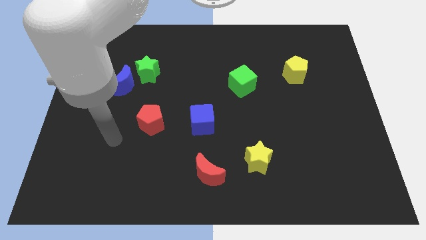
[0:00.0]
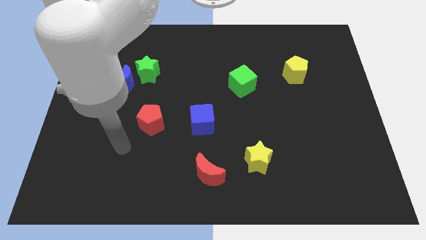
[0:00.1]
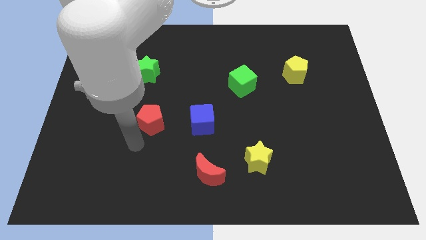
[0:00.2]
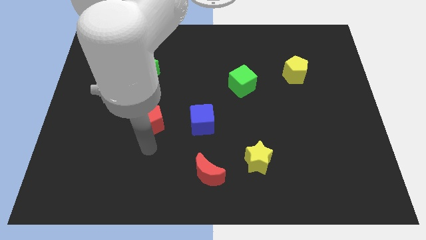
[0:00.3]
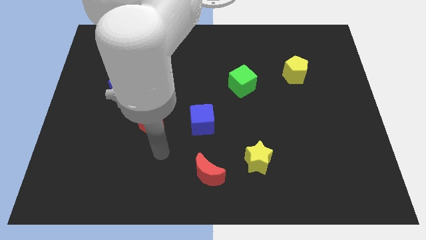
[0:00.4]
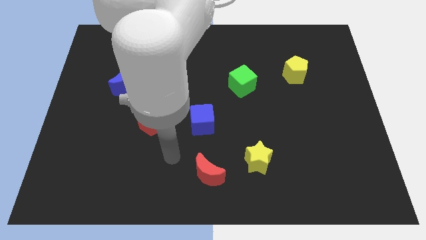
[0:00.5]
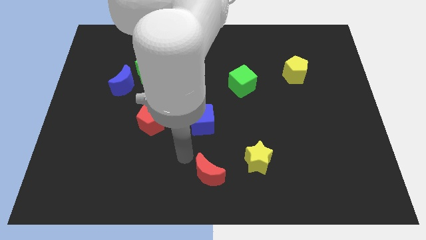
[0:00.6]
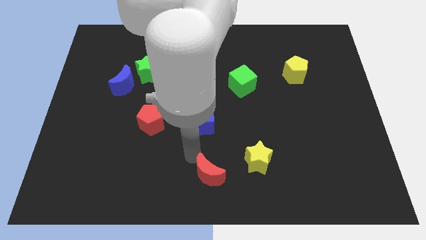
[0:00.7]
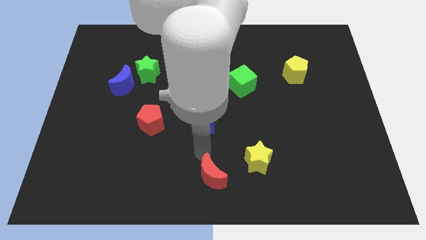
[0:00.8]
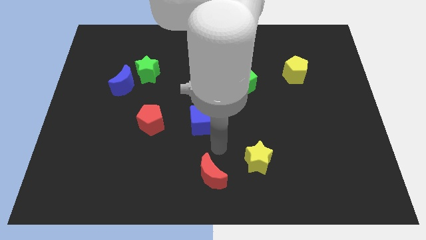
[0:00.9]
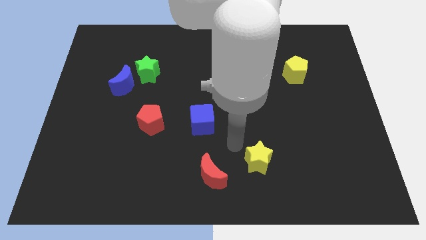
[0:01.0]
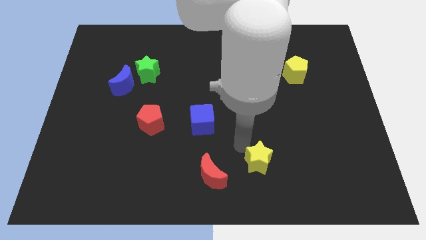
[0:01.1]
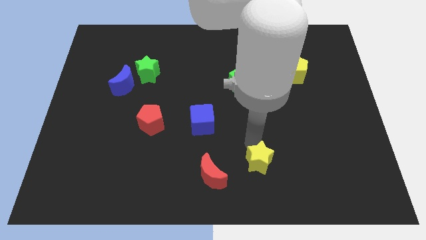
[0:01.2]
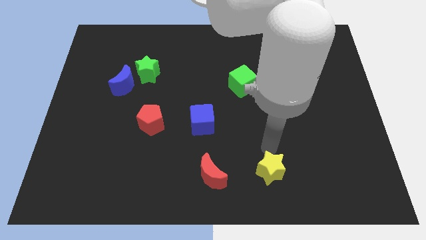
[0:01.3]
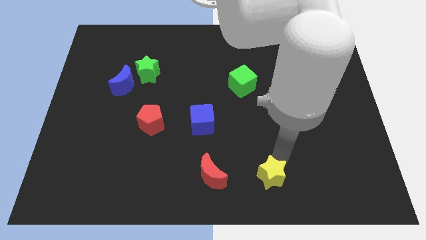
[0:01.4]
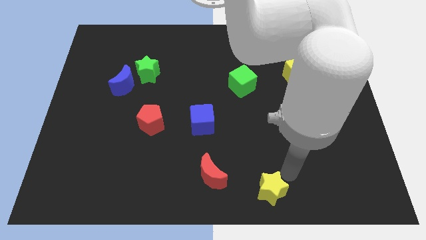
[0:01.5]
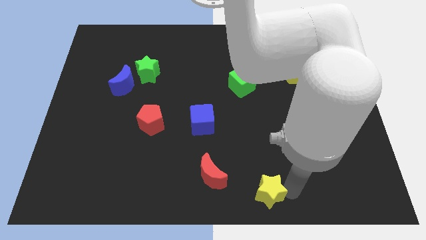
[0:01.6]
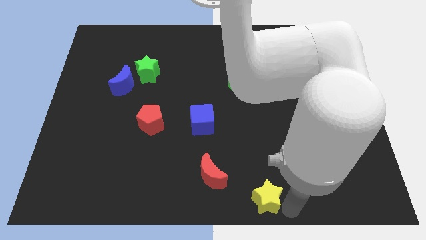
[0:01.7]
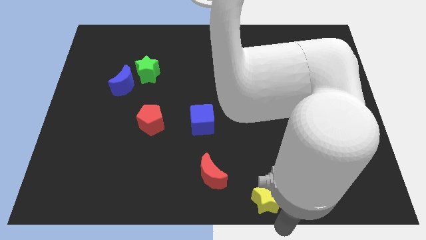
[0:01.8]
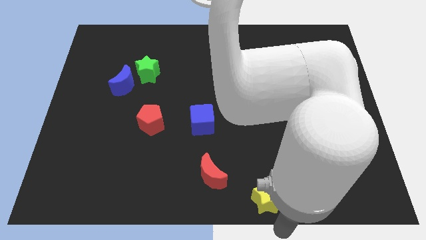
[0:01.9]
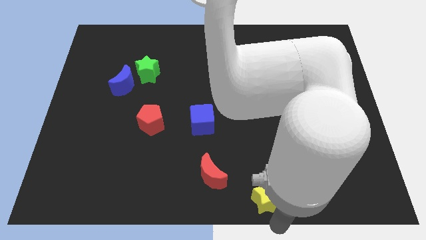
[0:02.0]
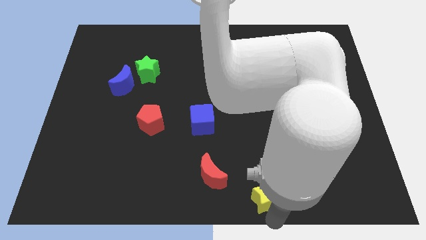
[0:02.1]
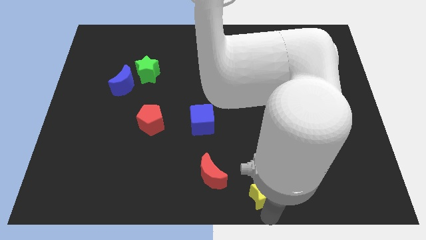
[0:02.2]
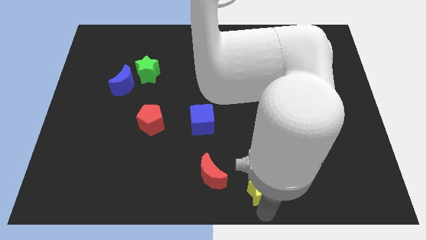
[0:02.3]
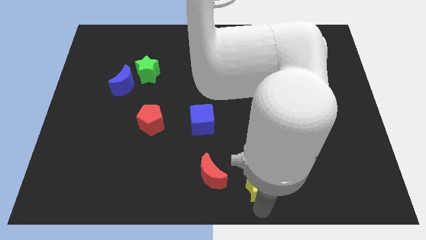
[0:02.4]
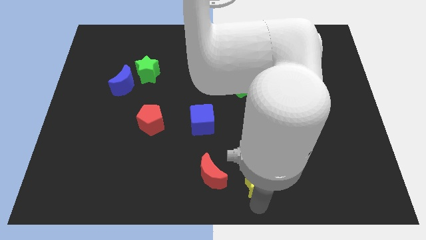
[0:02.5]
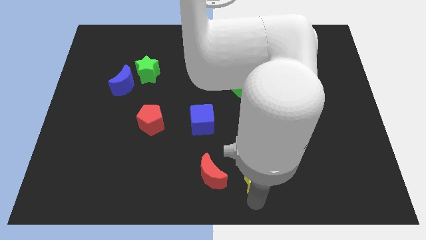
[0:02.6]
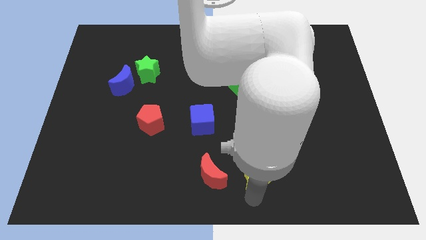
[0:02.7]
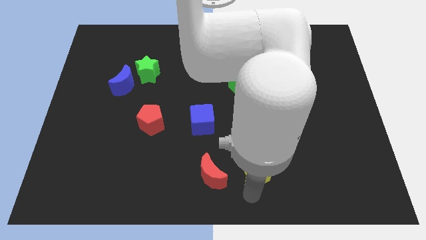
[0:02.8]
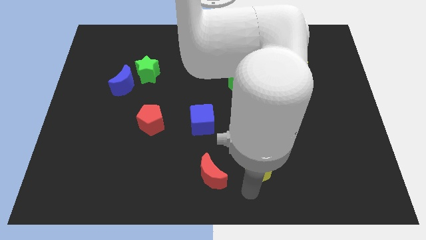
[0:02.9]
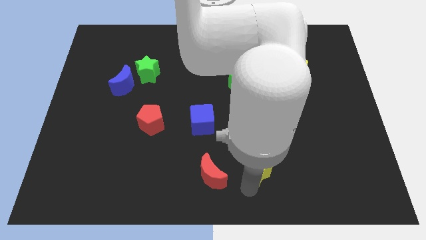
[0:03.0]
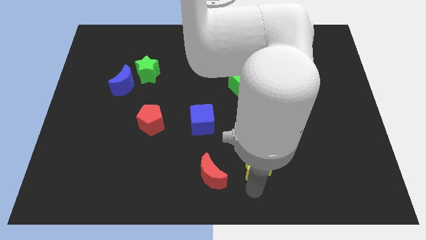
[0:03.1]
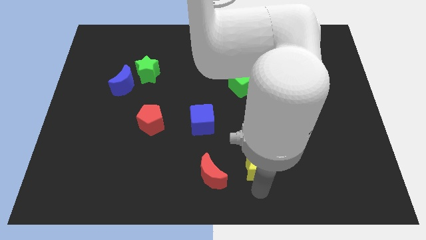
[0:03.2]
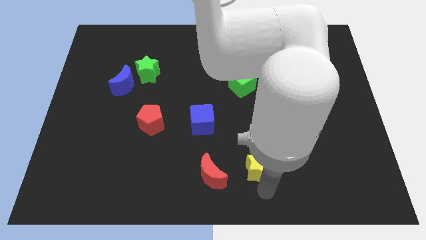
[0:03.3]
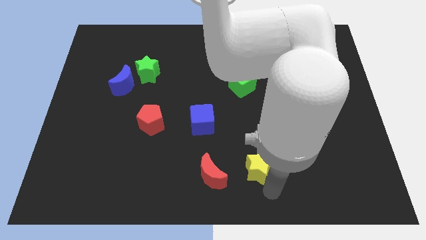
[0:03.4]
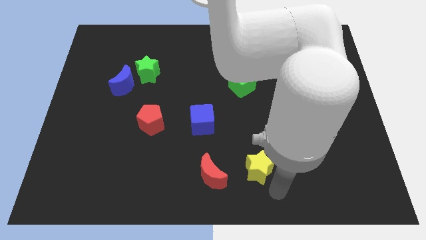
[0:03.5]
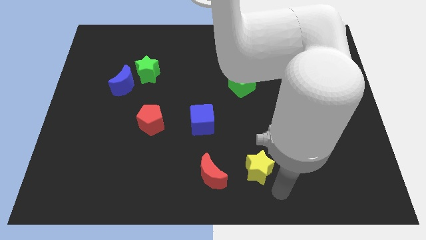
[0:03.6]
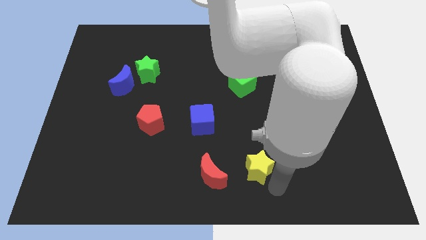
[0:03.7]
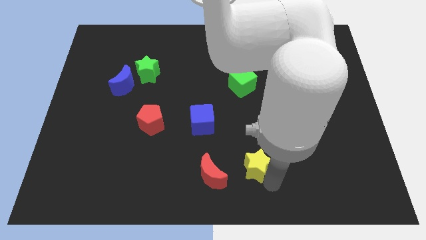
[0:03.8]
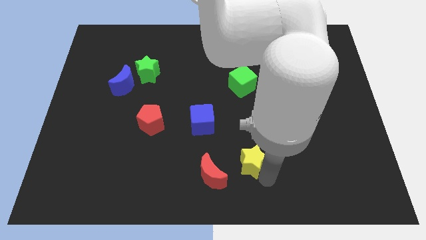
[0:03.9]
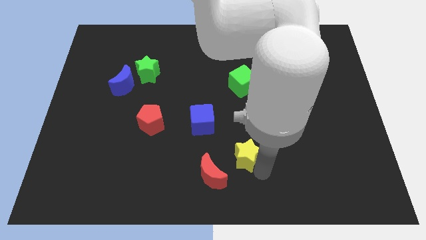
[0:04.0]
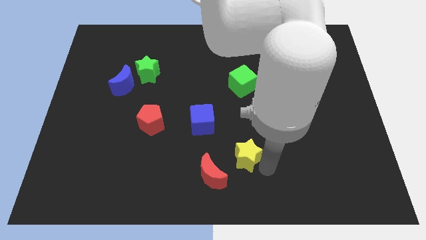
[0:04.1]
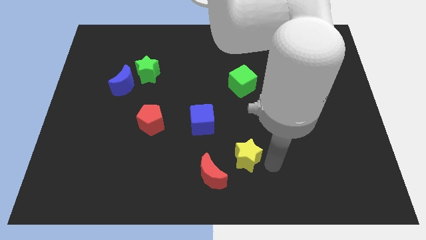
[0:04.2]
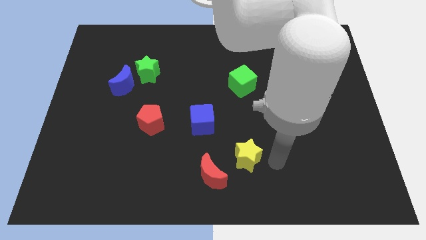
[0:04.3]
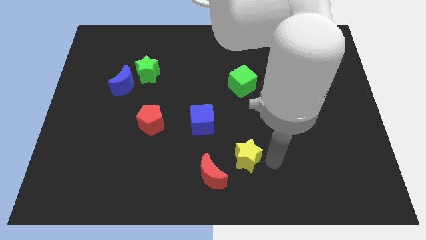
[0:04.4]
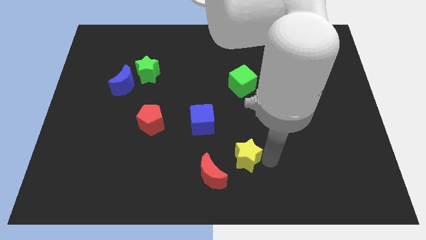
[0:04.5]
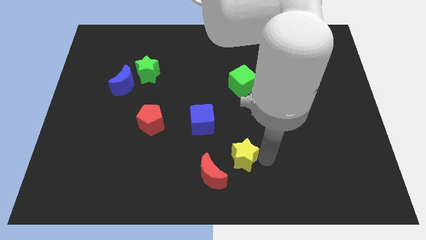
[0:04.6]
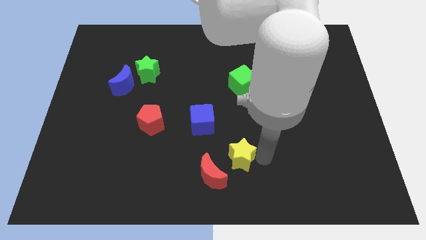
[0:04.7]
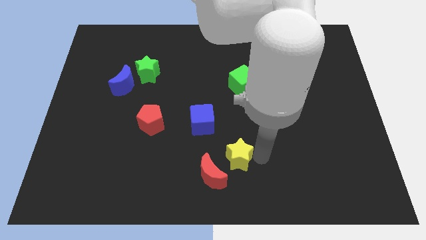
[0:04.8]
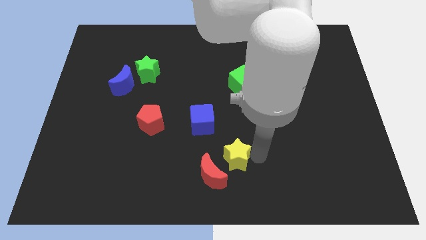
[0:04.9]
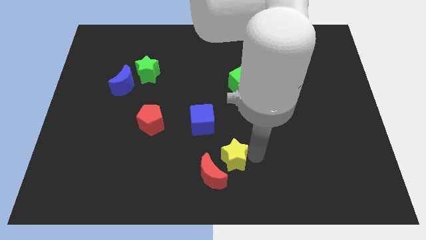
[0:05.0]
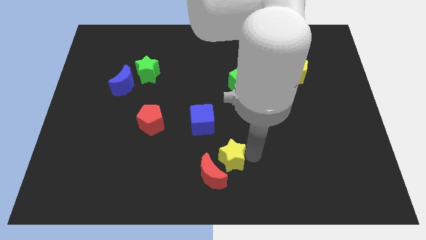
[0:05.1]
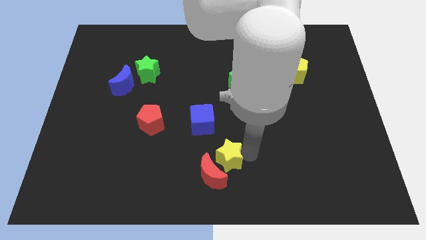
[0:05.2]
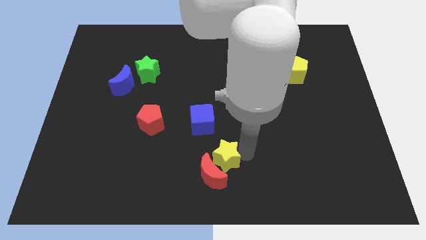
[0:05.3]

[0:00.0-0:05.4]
slide the yellow star left slightly

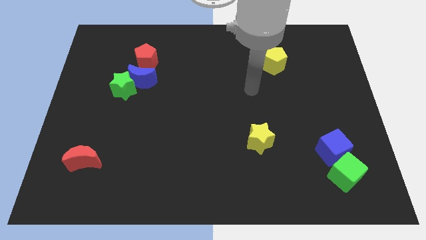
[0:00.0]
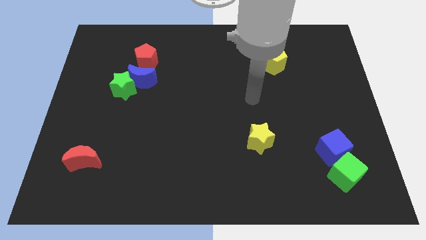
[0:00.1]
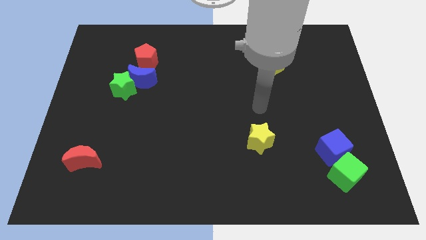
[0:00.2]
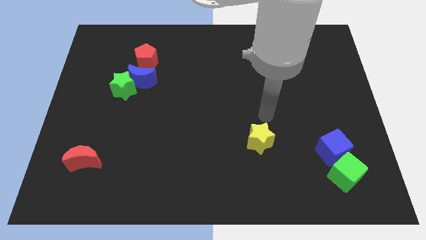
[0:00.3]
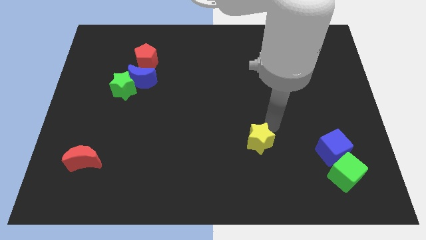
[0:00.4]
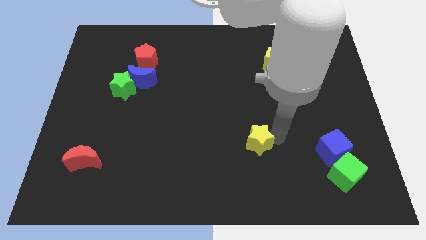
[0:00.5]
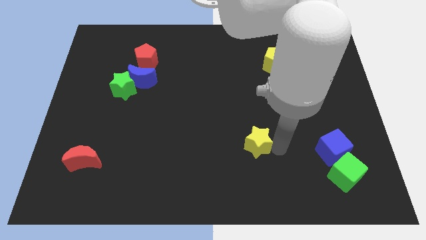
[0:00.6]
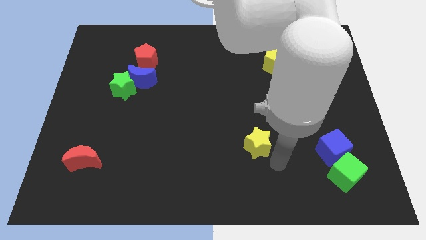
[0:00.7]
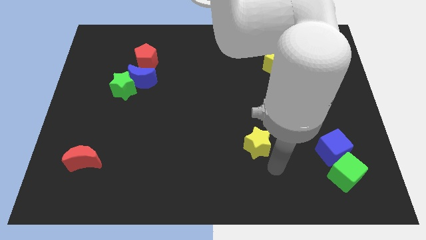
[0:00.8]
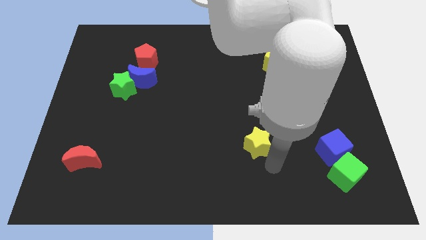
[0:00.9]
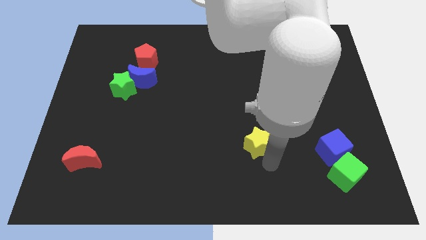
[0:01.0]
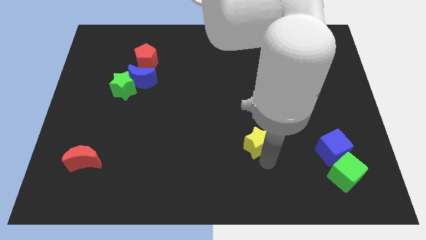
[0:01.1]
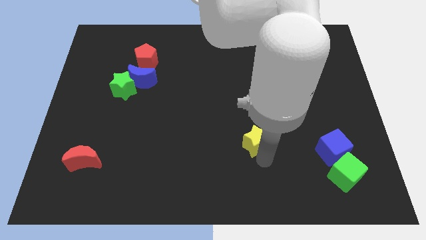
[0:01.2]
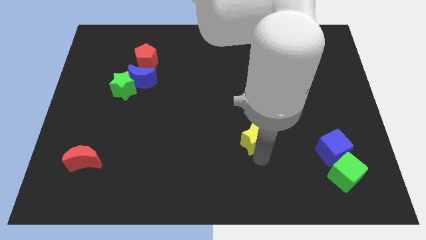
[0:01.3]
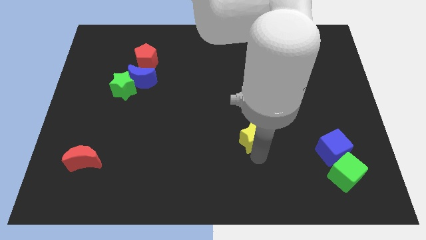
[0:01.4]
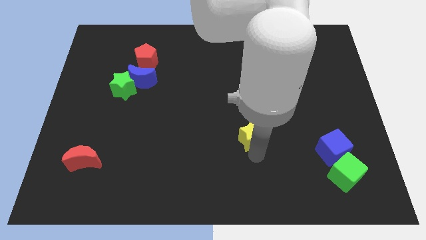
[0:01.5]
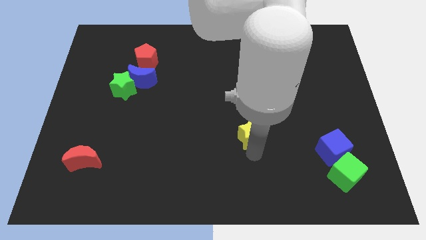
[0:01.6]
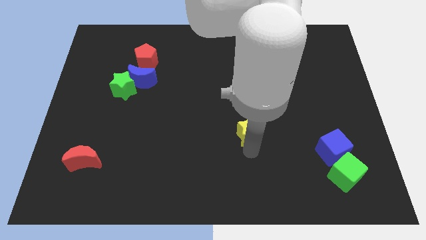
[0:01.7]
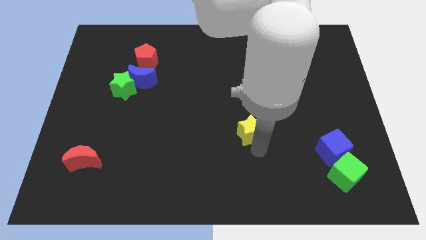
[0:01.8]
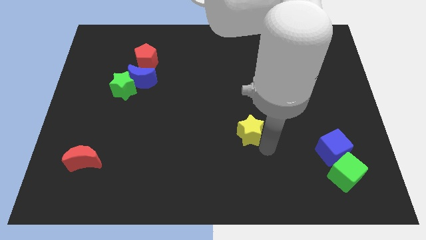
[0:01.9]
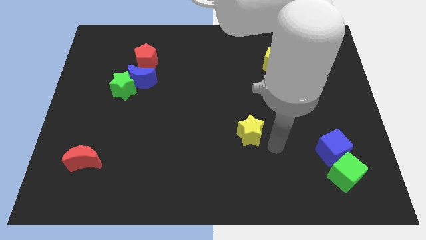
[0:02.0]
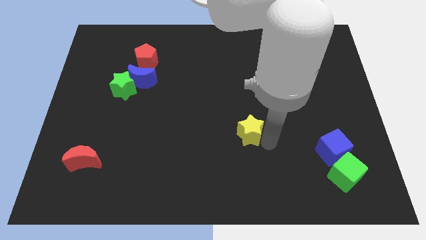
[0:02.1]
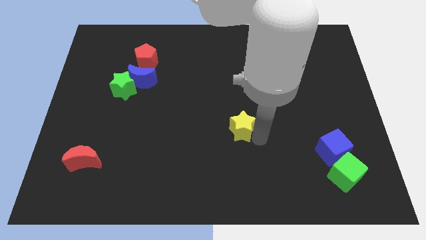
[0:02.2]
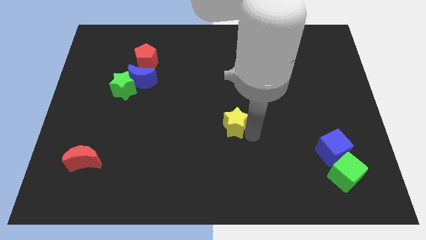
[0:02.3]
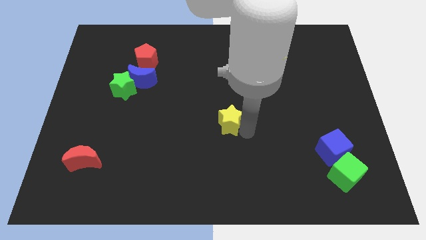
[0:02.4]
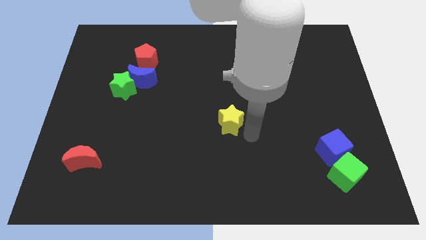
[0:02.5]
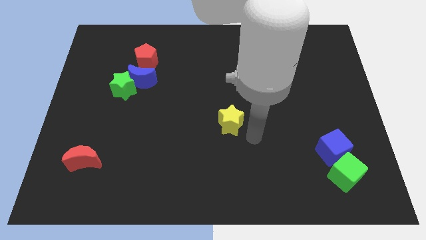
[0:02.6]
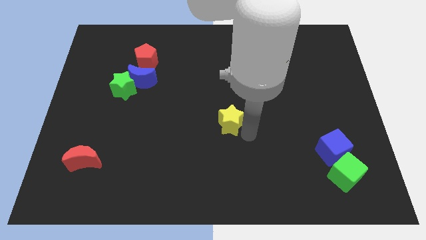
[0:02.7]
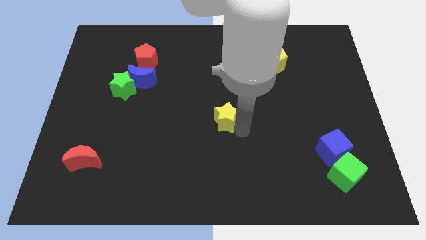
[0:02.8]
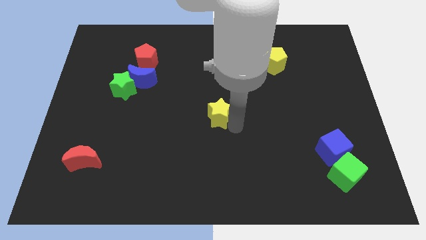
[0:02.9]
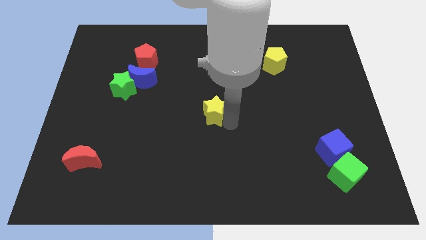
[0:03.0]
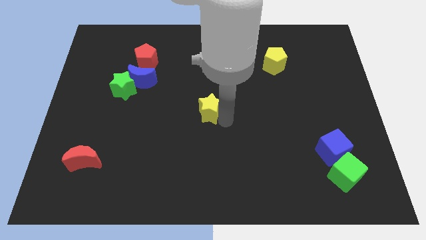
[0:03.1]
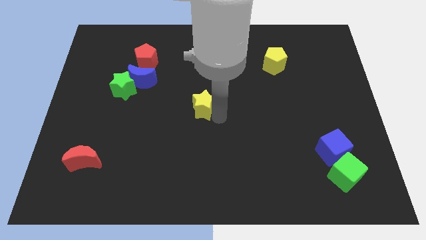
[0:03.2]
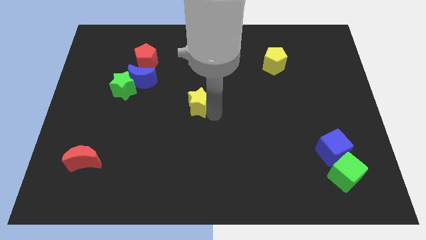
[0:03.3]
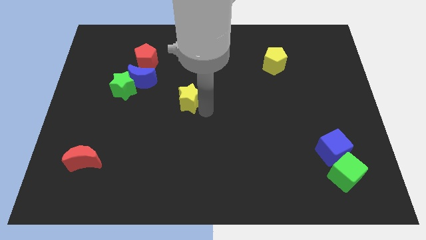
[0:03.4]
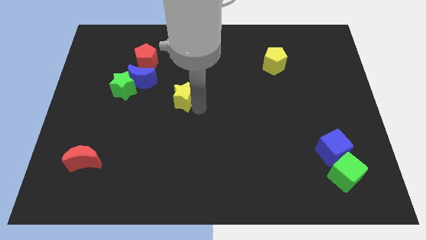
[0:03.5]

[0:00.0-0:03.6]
push the yellow star up and then left
